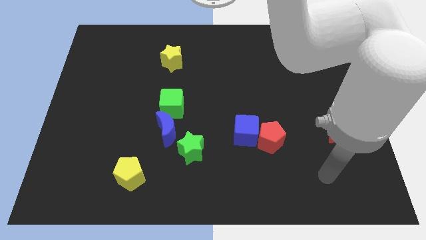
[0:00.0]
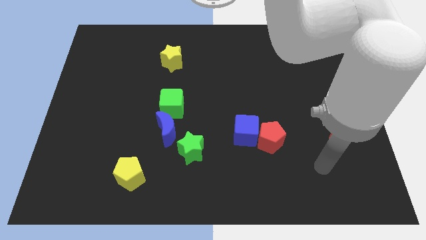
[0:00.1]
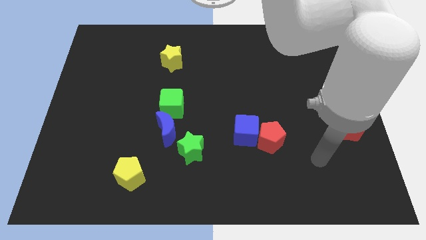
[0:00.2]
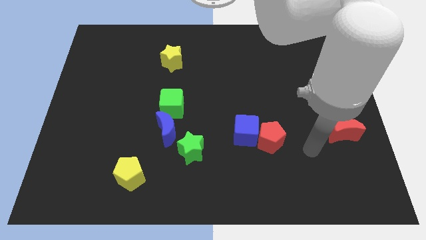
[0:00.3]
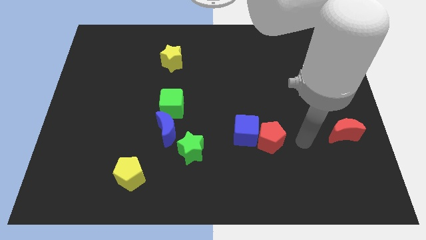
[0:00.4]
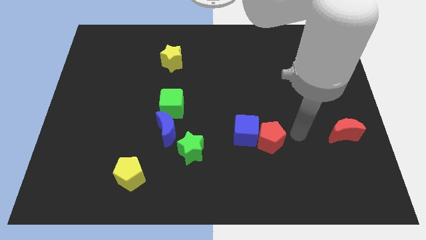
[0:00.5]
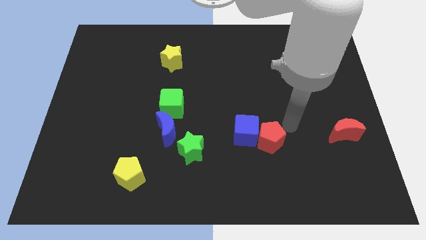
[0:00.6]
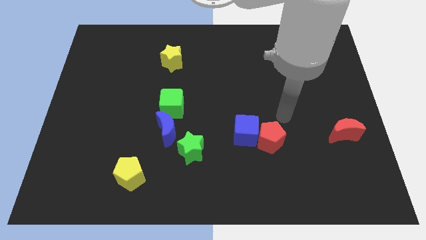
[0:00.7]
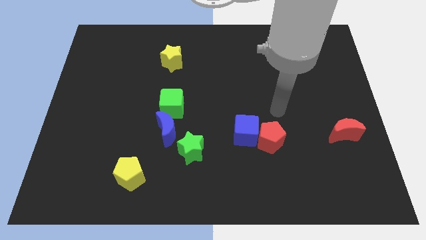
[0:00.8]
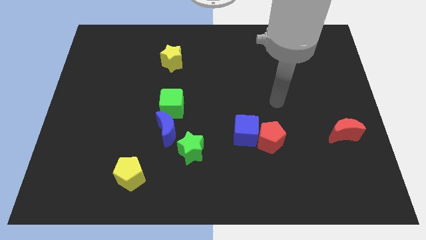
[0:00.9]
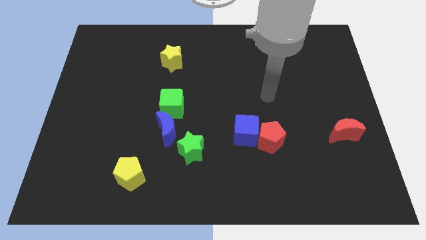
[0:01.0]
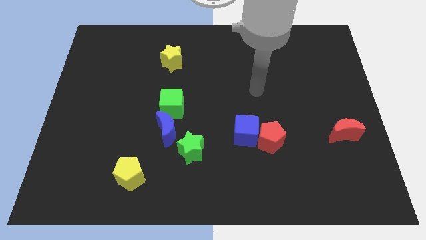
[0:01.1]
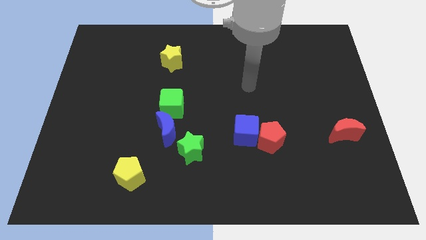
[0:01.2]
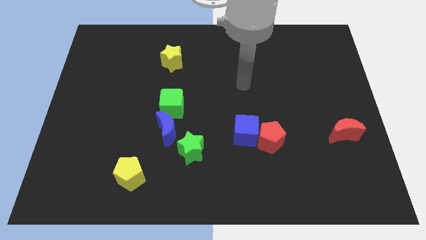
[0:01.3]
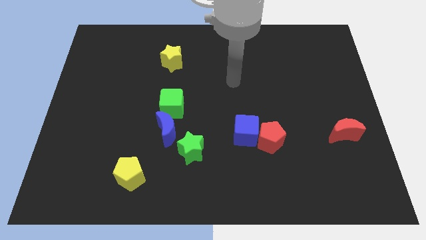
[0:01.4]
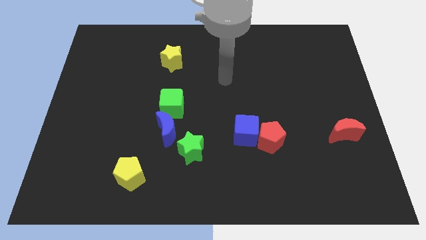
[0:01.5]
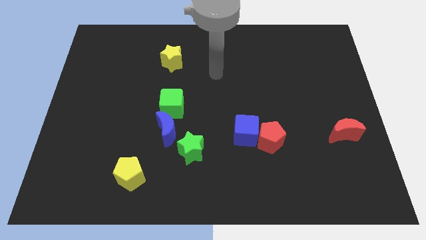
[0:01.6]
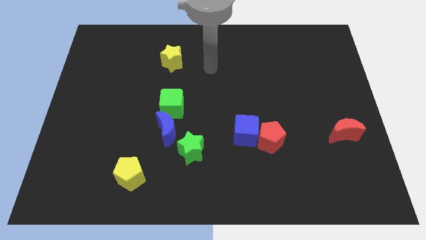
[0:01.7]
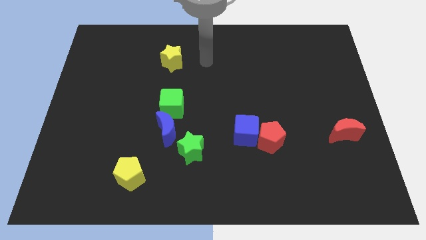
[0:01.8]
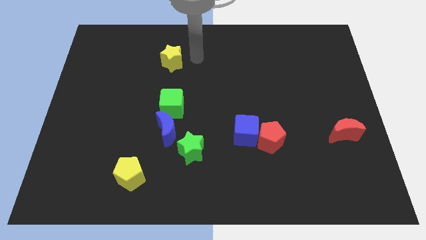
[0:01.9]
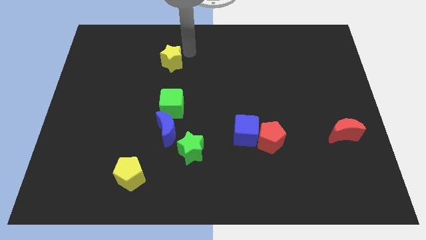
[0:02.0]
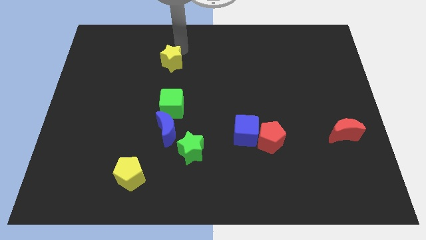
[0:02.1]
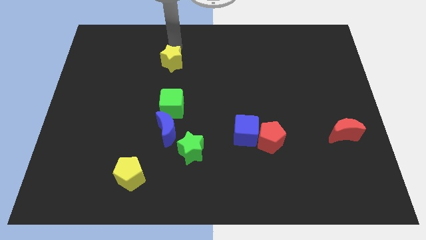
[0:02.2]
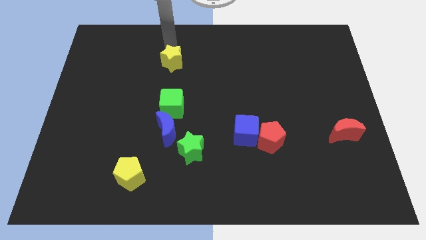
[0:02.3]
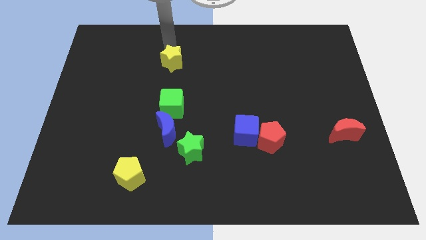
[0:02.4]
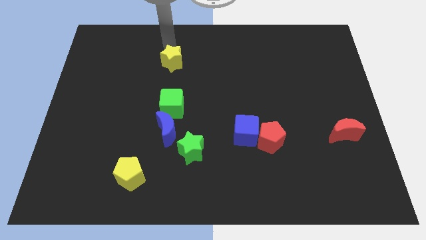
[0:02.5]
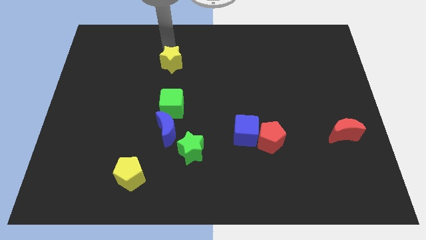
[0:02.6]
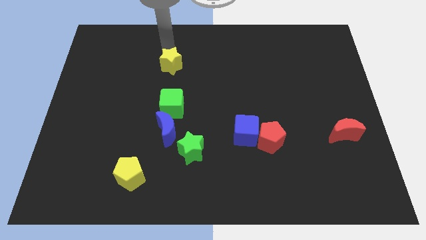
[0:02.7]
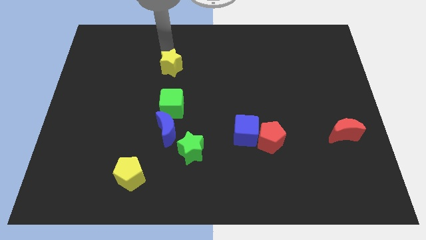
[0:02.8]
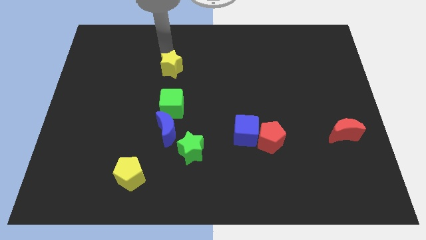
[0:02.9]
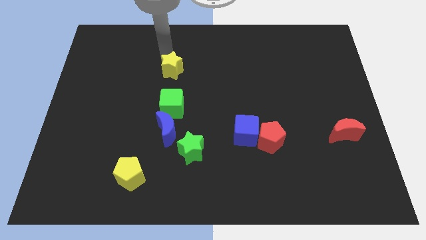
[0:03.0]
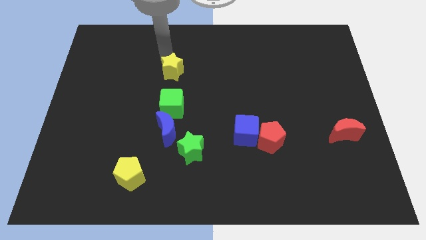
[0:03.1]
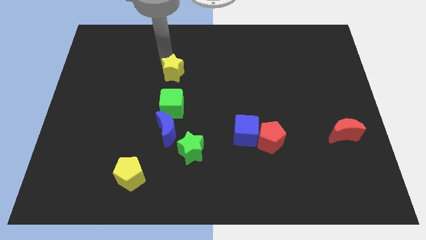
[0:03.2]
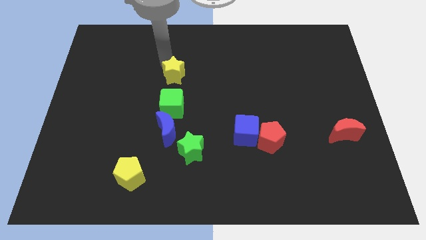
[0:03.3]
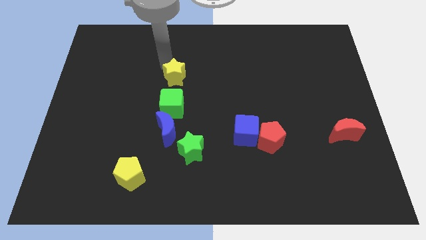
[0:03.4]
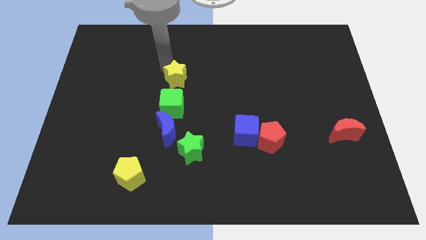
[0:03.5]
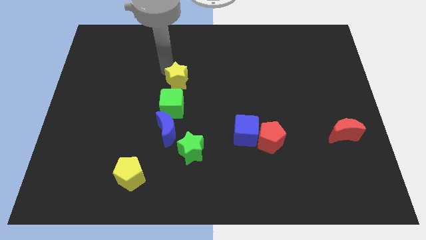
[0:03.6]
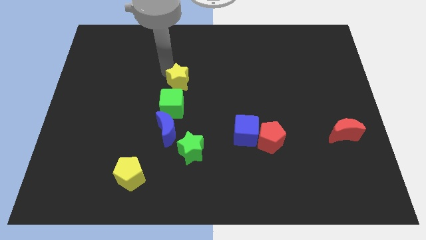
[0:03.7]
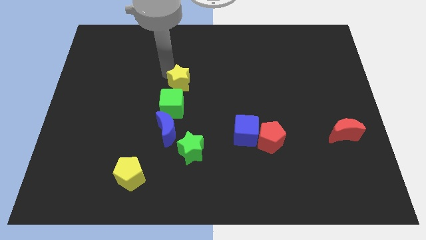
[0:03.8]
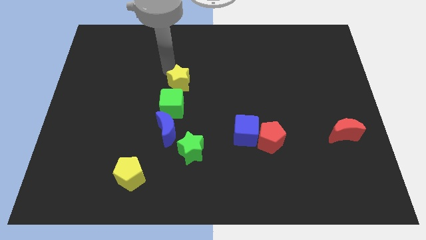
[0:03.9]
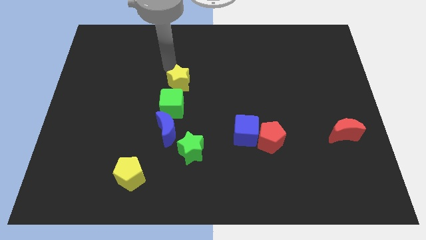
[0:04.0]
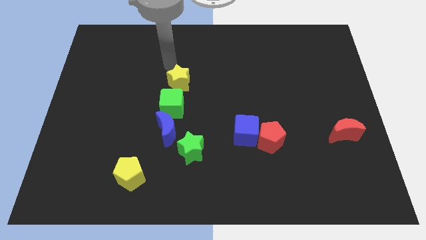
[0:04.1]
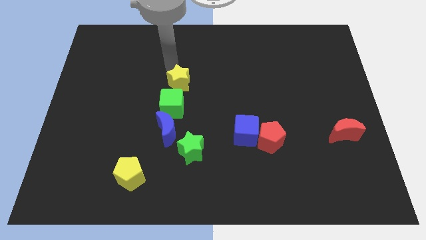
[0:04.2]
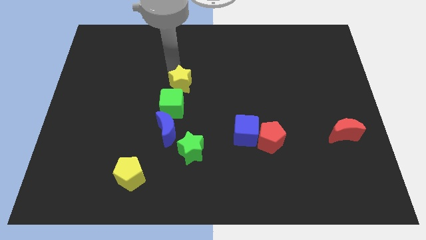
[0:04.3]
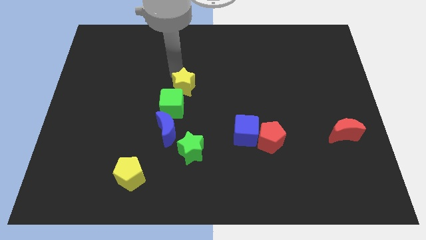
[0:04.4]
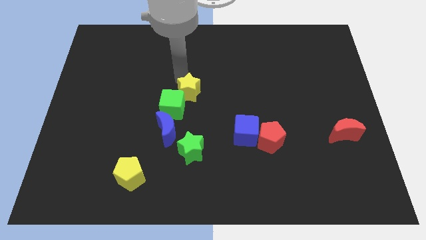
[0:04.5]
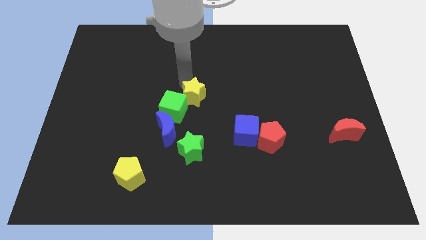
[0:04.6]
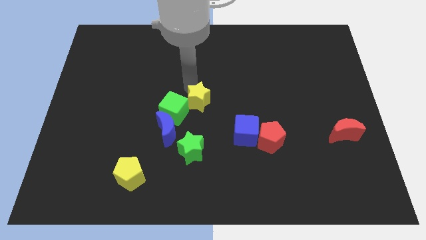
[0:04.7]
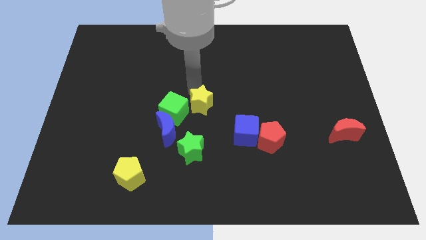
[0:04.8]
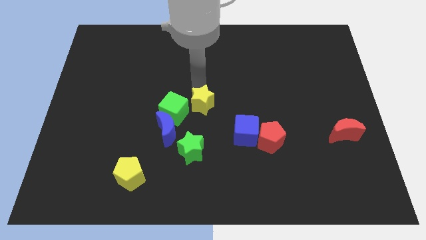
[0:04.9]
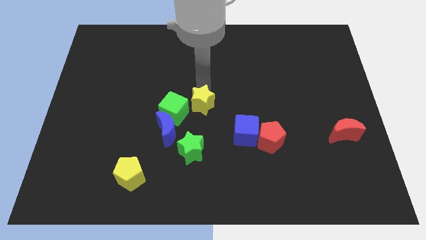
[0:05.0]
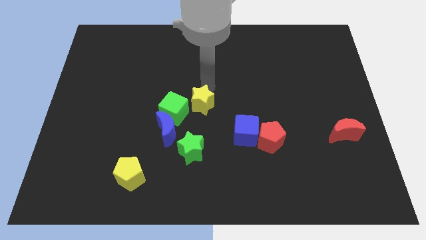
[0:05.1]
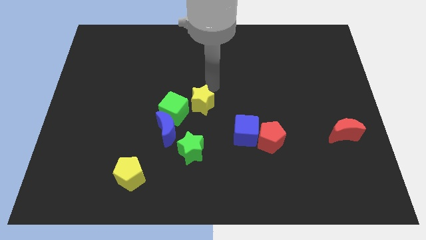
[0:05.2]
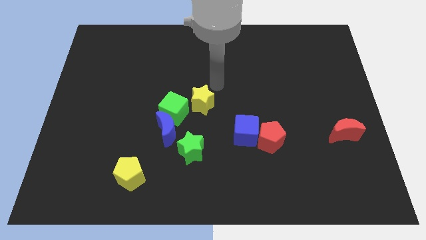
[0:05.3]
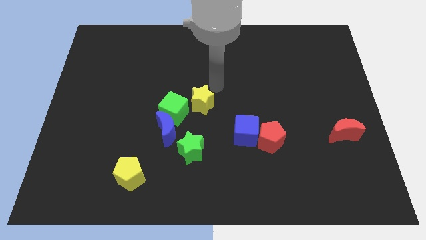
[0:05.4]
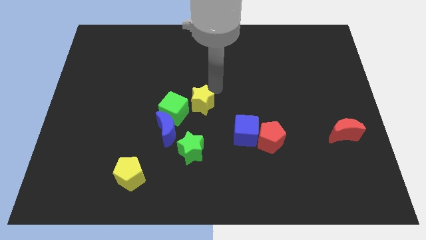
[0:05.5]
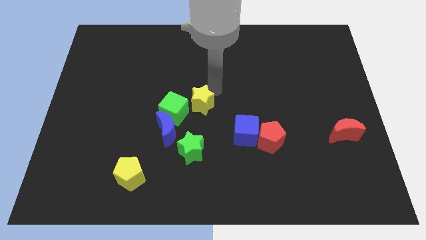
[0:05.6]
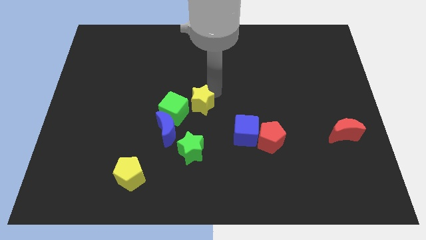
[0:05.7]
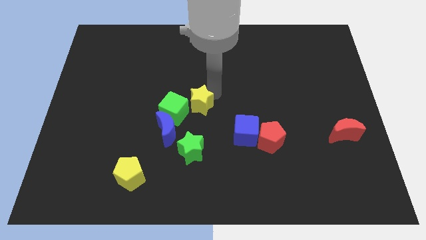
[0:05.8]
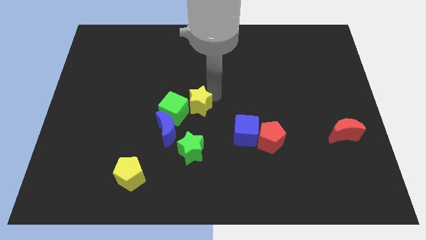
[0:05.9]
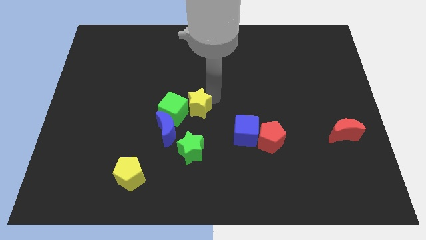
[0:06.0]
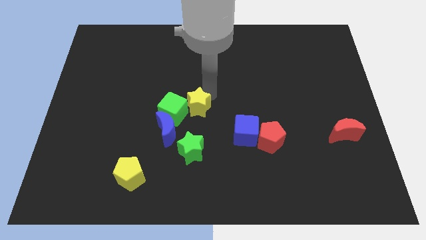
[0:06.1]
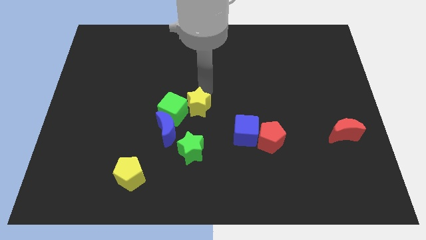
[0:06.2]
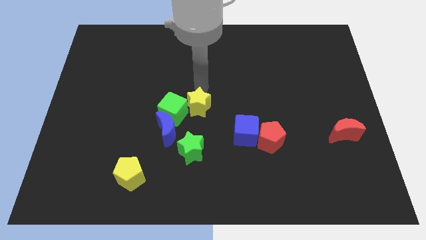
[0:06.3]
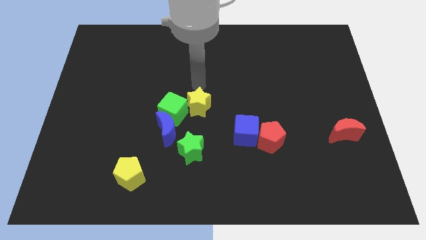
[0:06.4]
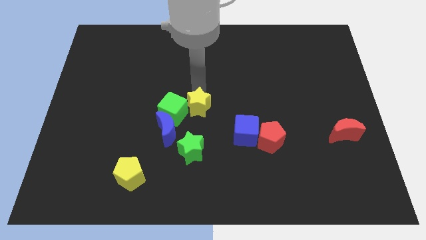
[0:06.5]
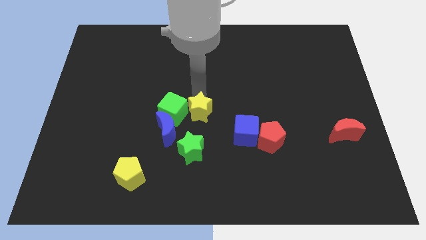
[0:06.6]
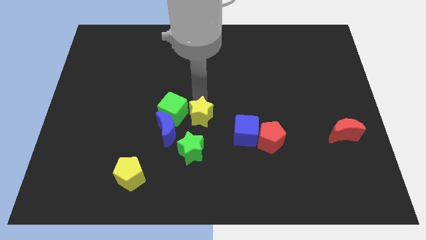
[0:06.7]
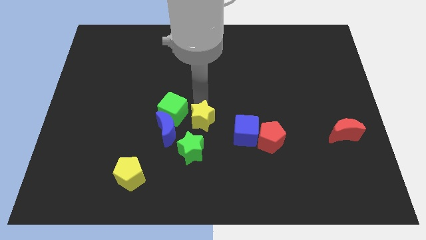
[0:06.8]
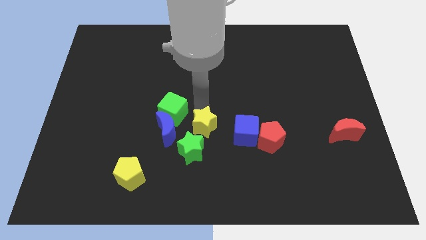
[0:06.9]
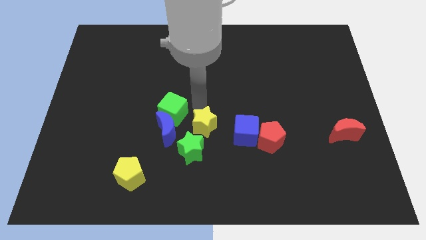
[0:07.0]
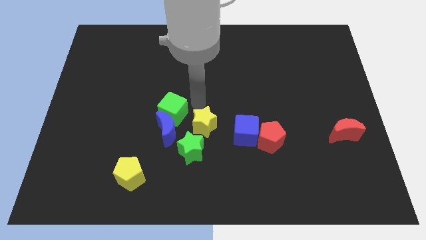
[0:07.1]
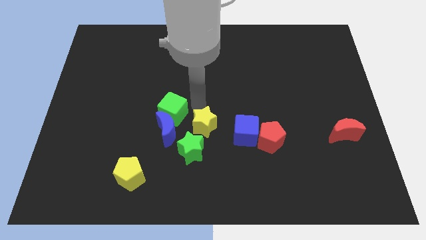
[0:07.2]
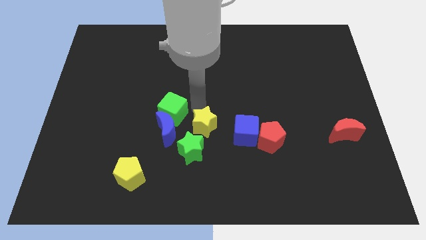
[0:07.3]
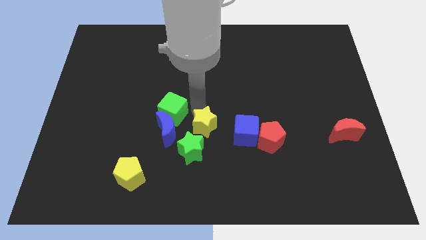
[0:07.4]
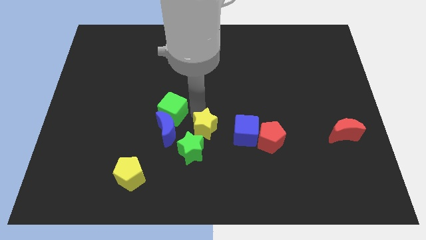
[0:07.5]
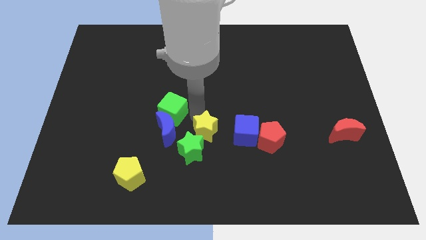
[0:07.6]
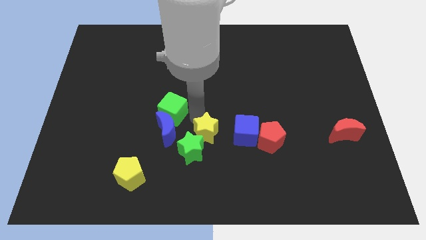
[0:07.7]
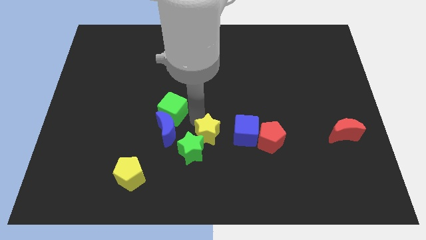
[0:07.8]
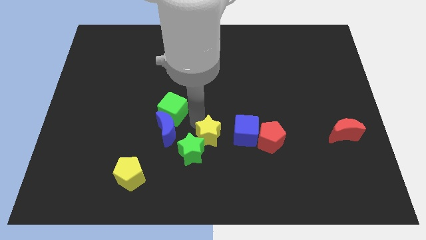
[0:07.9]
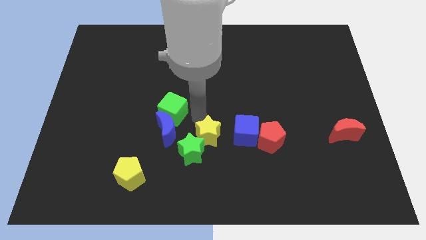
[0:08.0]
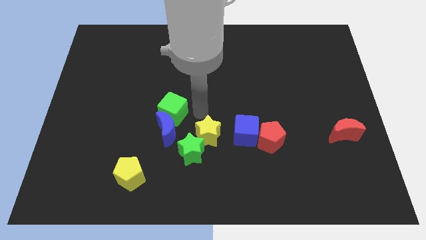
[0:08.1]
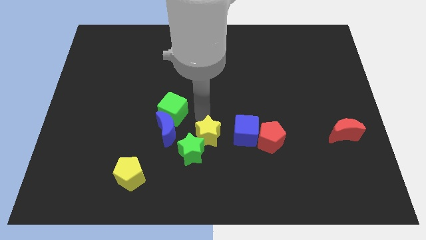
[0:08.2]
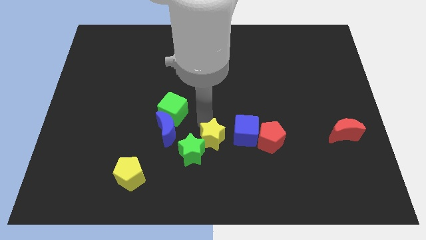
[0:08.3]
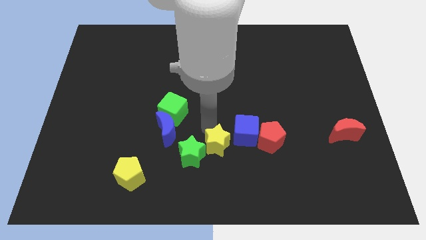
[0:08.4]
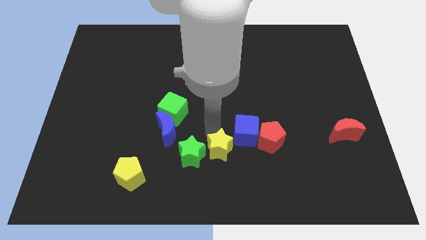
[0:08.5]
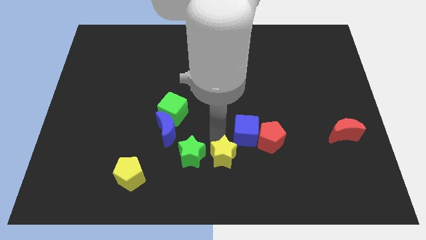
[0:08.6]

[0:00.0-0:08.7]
slide the yellow star to the bottom side
